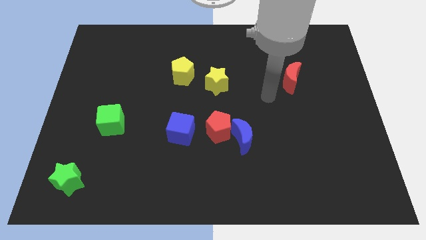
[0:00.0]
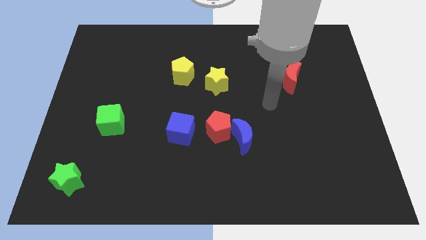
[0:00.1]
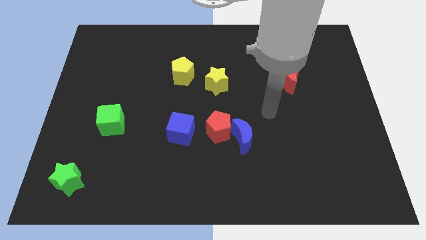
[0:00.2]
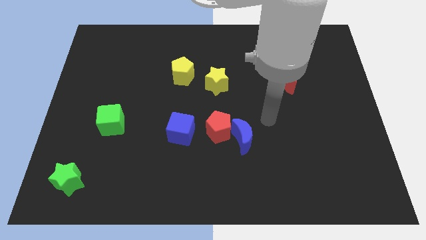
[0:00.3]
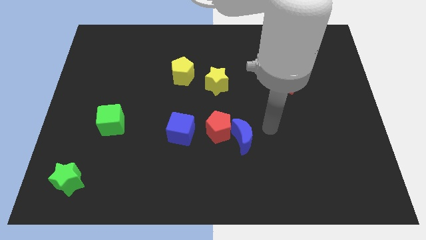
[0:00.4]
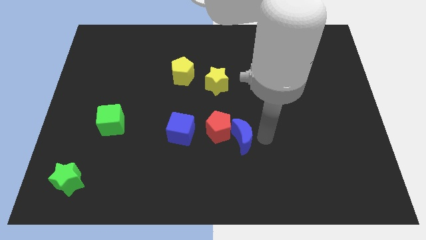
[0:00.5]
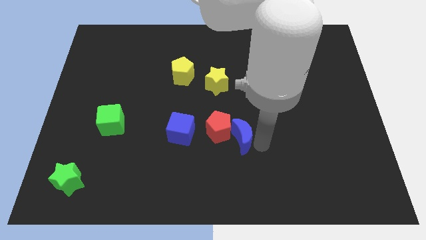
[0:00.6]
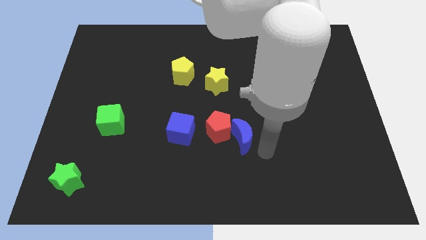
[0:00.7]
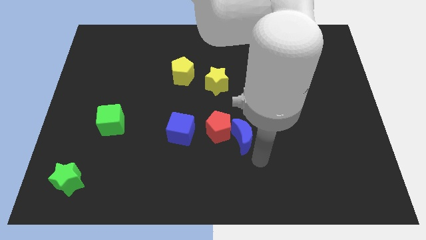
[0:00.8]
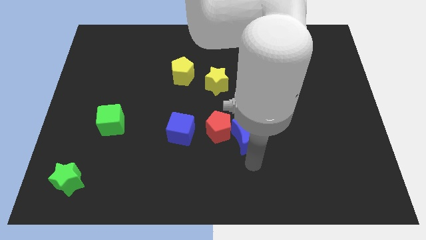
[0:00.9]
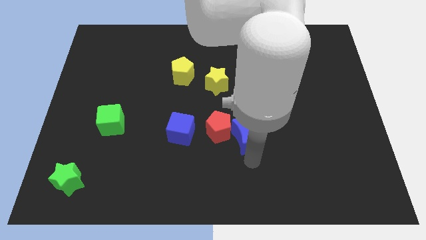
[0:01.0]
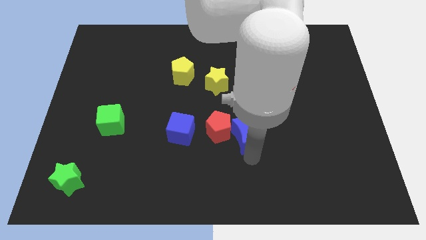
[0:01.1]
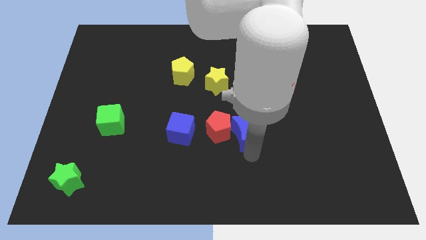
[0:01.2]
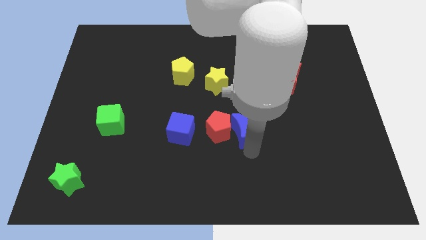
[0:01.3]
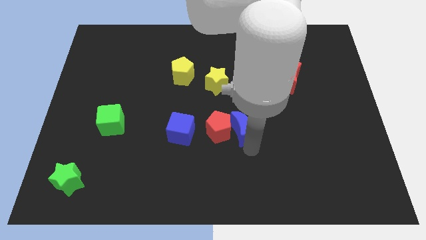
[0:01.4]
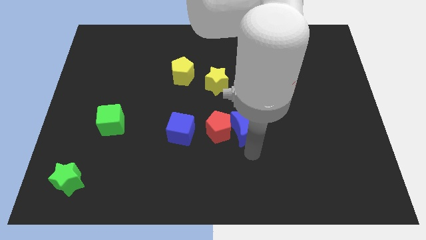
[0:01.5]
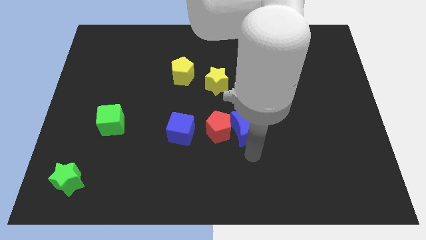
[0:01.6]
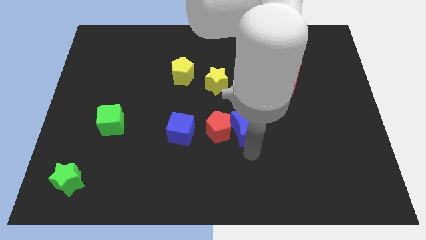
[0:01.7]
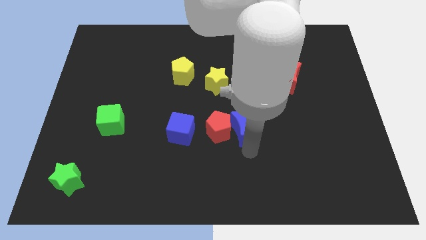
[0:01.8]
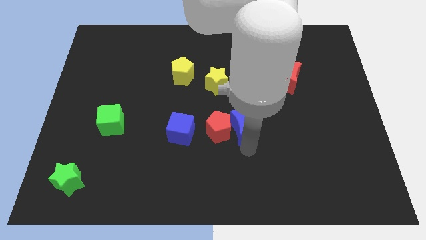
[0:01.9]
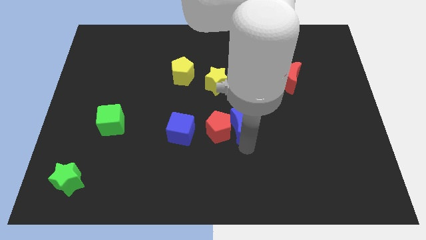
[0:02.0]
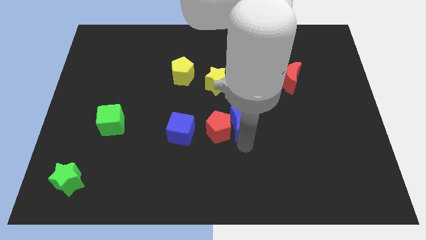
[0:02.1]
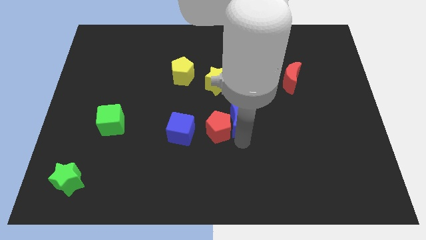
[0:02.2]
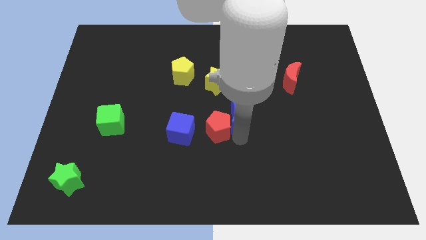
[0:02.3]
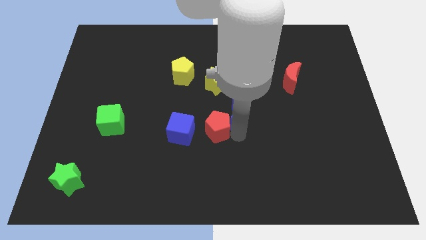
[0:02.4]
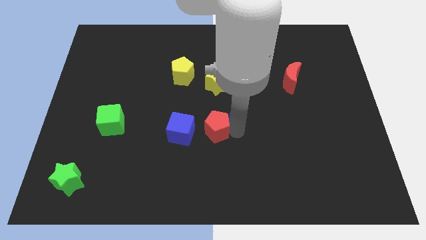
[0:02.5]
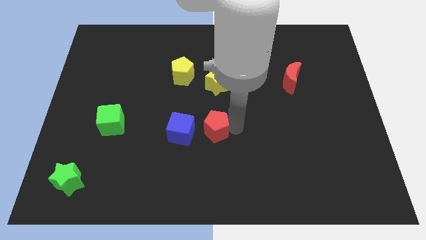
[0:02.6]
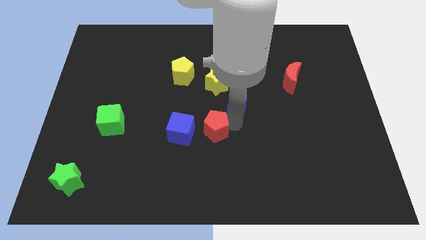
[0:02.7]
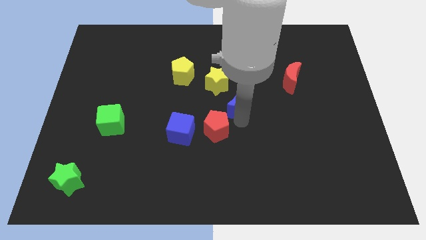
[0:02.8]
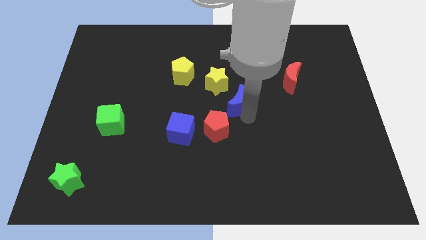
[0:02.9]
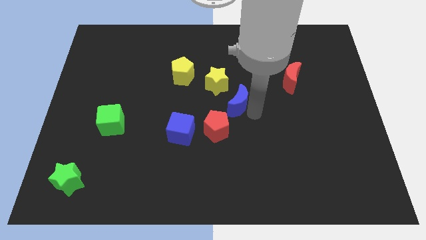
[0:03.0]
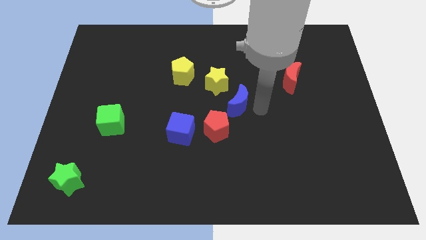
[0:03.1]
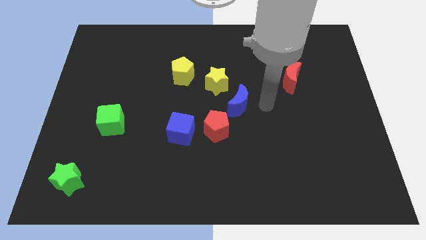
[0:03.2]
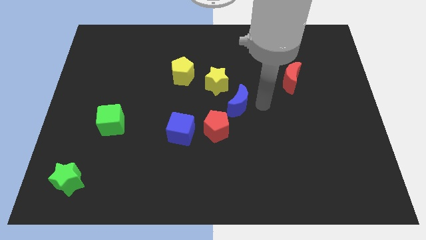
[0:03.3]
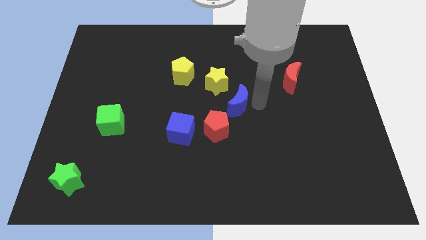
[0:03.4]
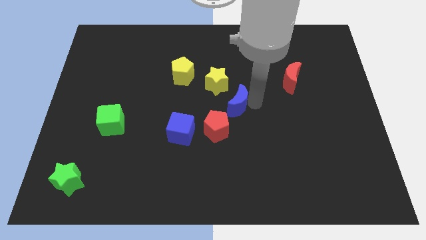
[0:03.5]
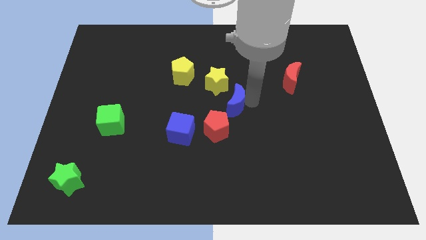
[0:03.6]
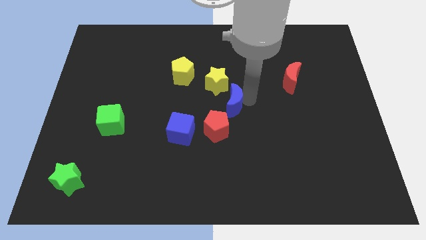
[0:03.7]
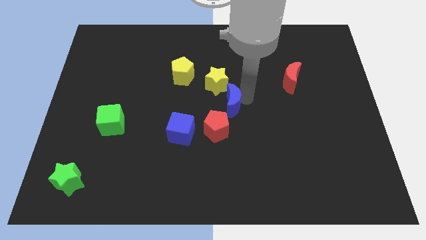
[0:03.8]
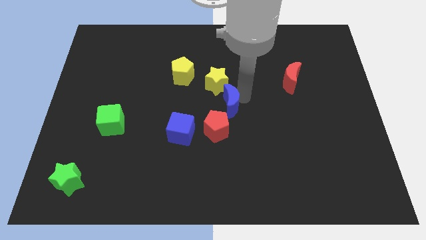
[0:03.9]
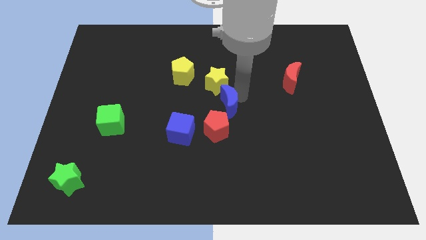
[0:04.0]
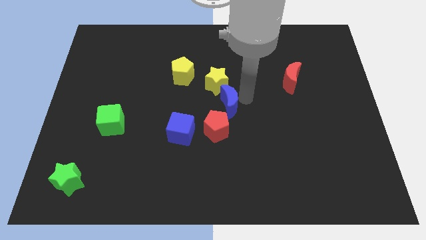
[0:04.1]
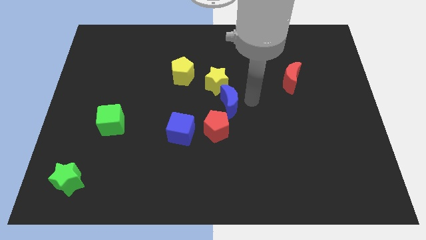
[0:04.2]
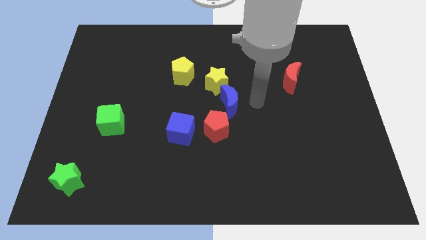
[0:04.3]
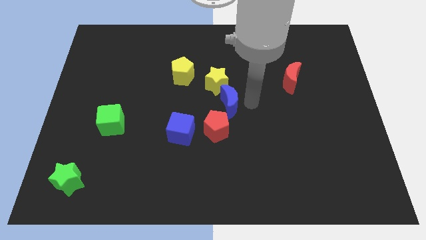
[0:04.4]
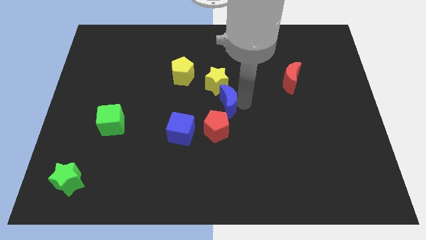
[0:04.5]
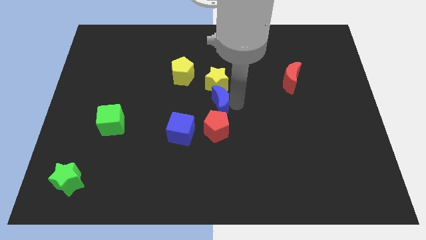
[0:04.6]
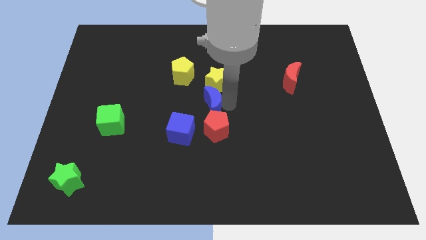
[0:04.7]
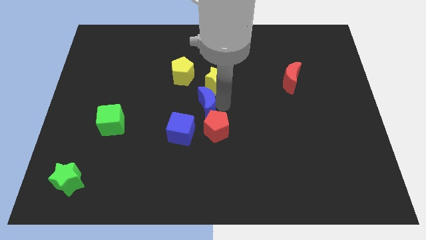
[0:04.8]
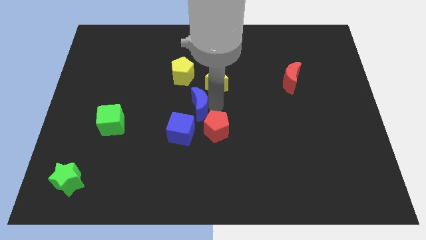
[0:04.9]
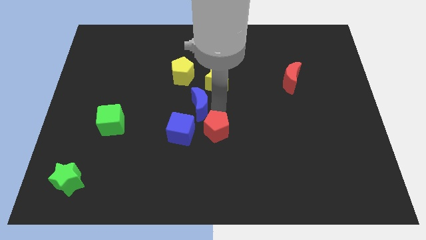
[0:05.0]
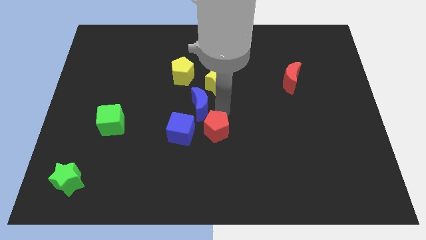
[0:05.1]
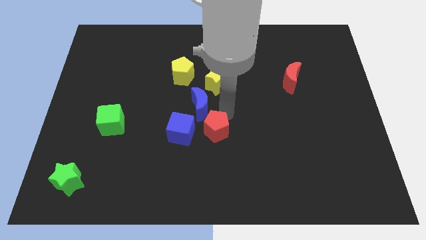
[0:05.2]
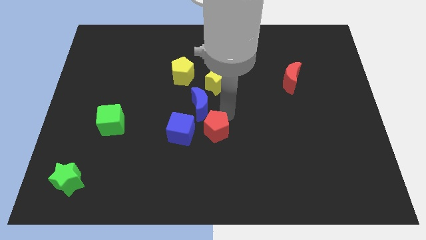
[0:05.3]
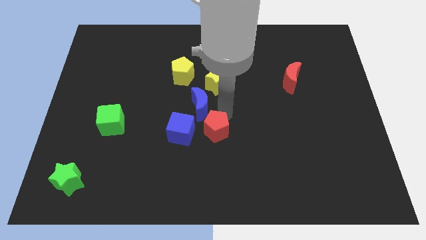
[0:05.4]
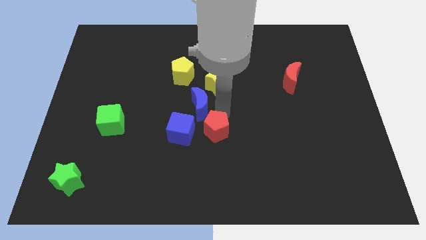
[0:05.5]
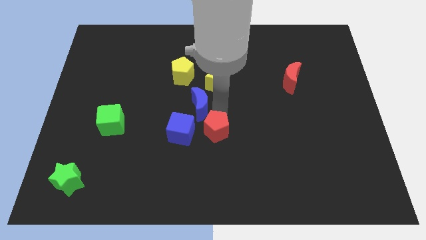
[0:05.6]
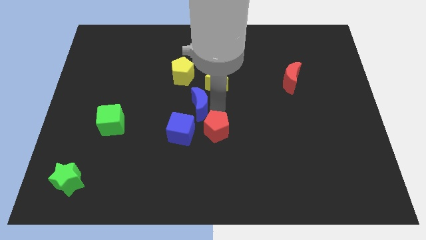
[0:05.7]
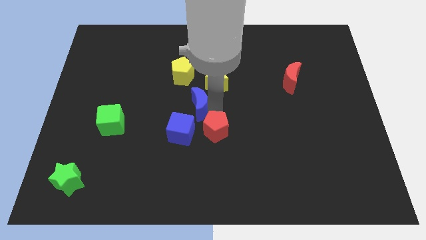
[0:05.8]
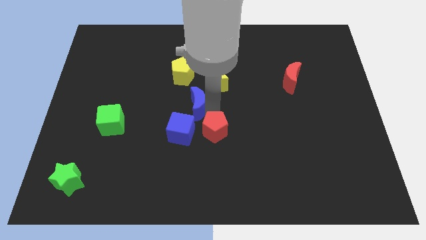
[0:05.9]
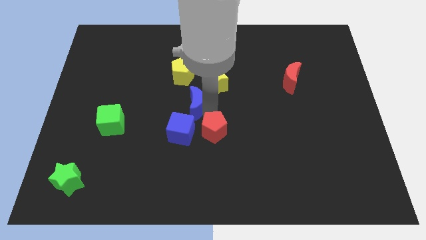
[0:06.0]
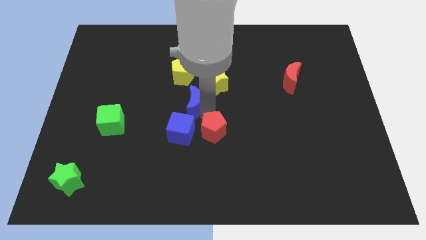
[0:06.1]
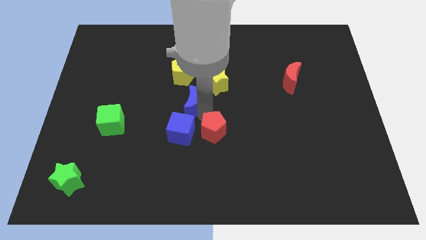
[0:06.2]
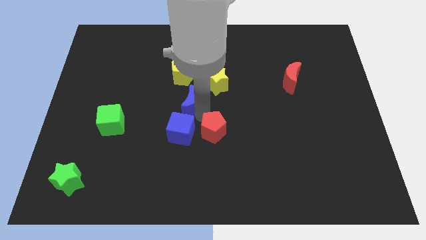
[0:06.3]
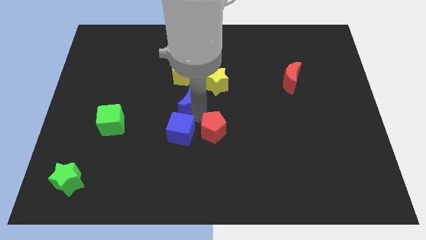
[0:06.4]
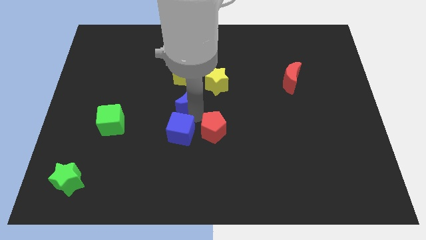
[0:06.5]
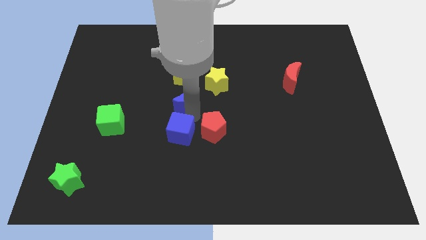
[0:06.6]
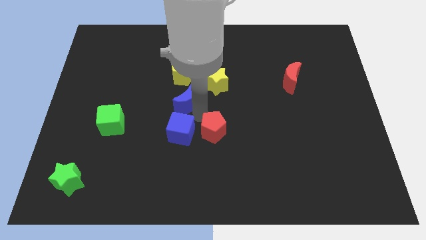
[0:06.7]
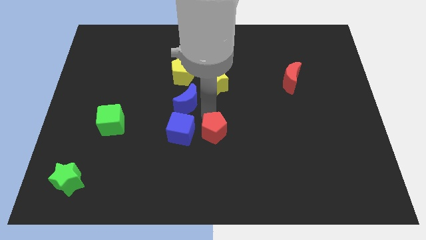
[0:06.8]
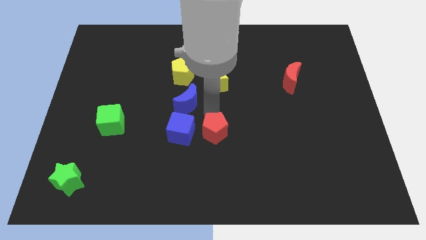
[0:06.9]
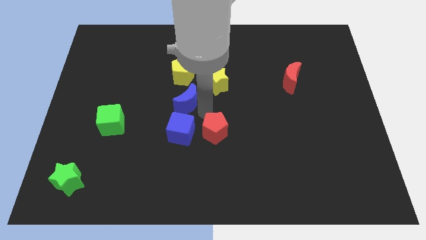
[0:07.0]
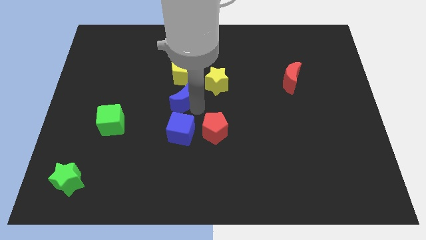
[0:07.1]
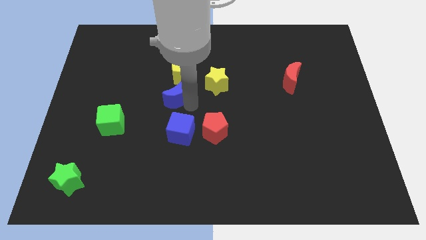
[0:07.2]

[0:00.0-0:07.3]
push the blue moon diagonally down and to the left of the yellow pentagon

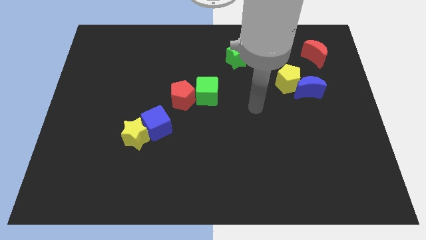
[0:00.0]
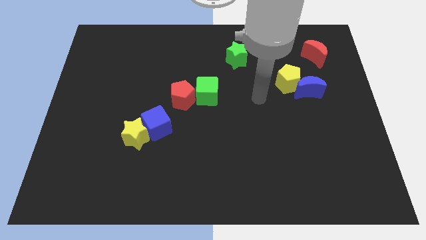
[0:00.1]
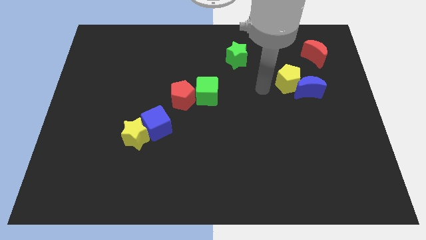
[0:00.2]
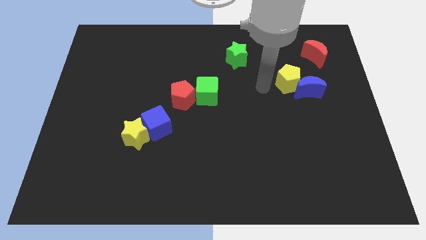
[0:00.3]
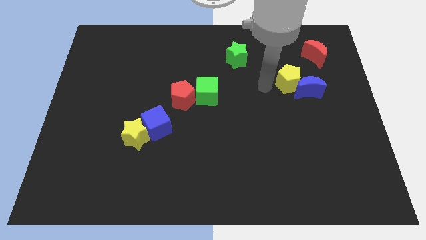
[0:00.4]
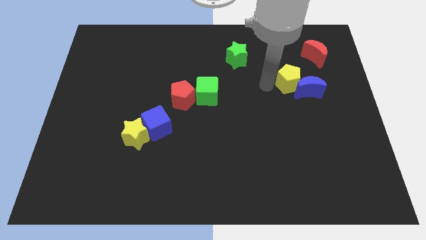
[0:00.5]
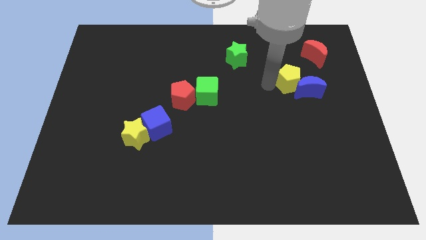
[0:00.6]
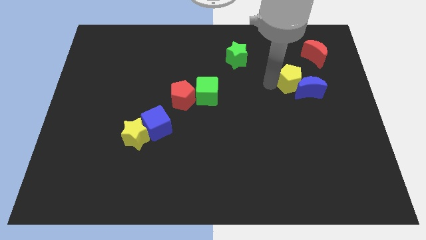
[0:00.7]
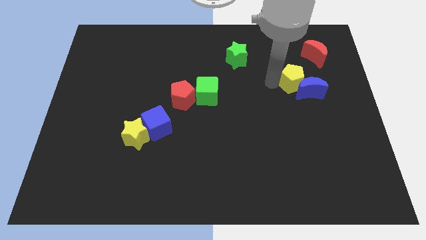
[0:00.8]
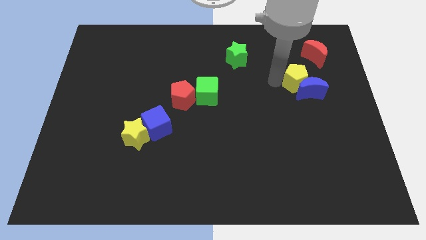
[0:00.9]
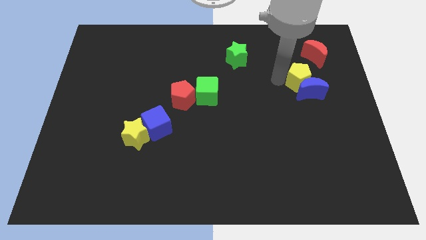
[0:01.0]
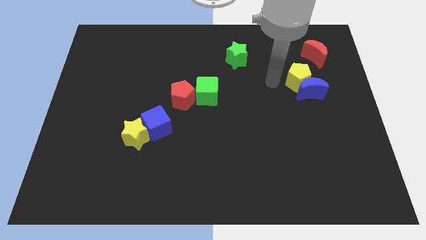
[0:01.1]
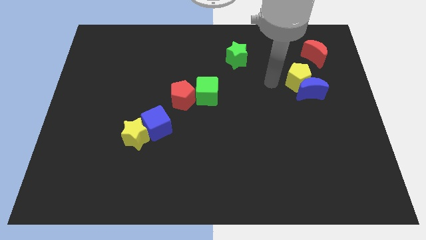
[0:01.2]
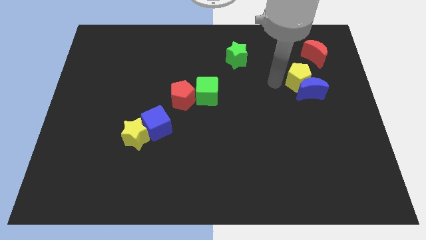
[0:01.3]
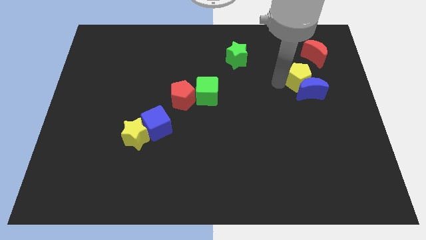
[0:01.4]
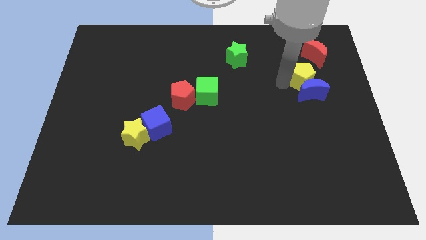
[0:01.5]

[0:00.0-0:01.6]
put the yellow pentagon to the top right of the blue moon
